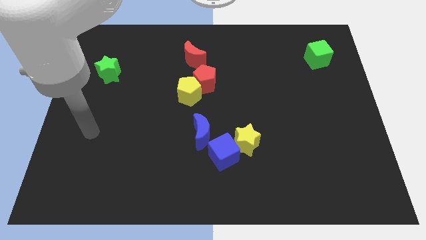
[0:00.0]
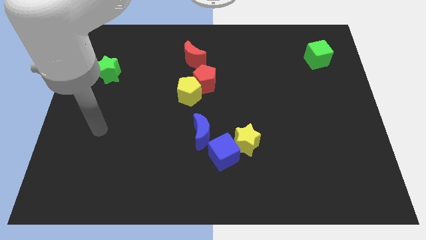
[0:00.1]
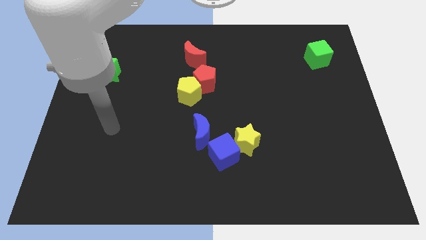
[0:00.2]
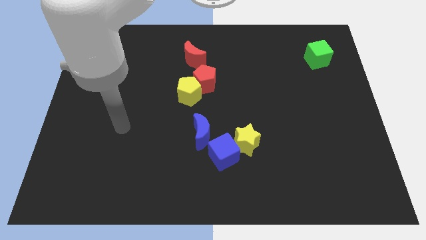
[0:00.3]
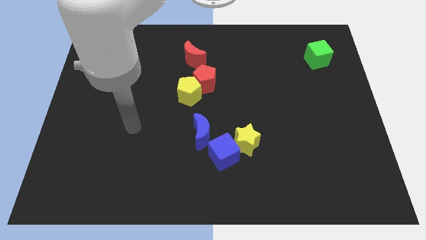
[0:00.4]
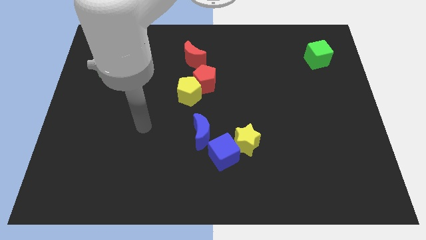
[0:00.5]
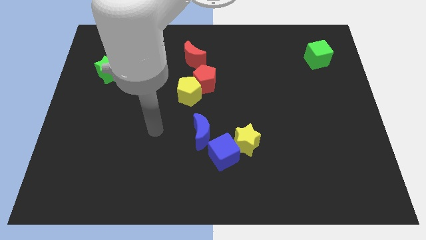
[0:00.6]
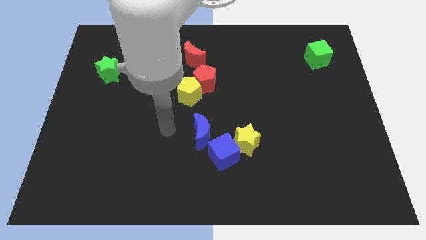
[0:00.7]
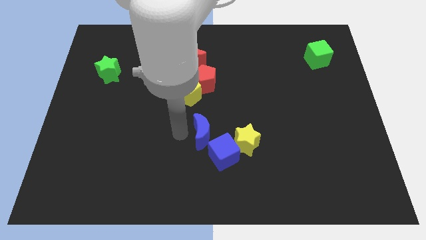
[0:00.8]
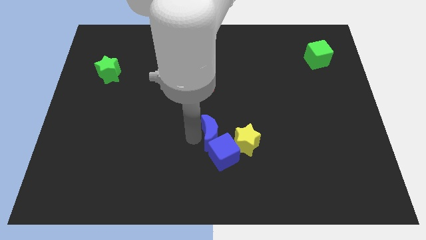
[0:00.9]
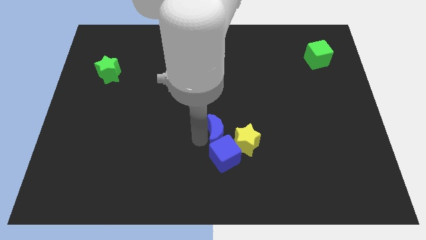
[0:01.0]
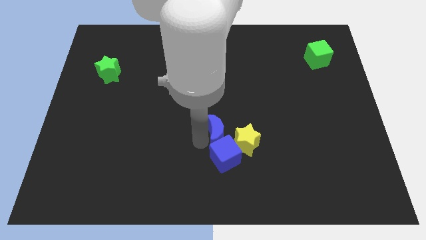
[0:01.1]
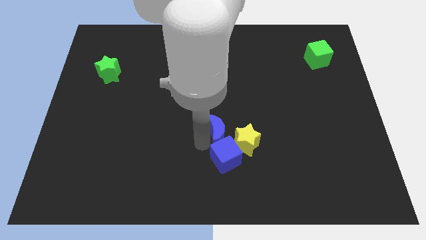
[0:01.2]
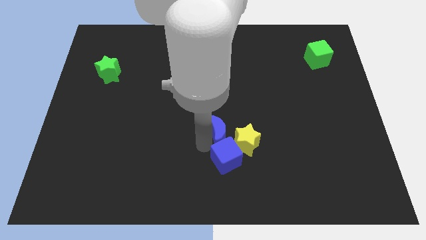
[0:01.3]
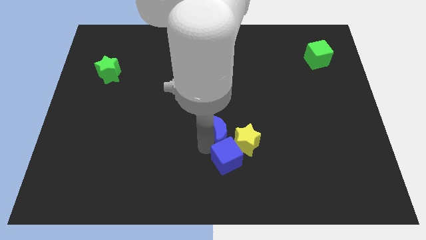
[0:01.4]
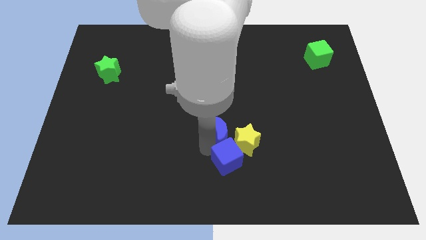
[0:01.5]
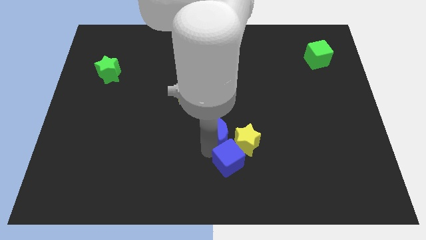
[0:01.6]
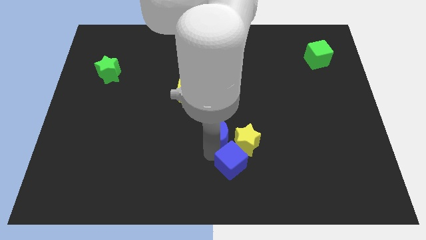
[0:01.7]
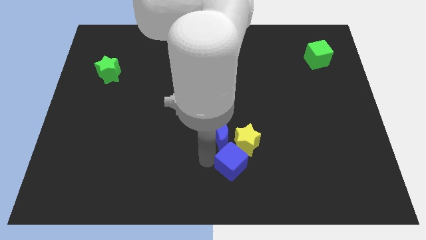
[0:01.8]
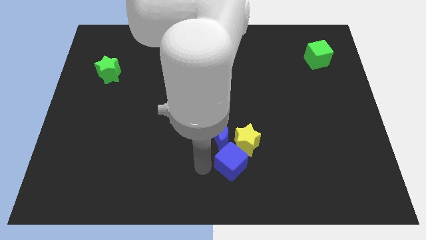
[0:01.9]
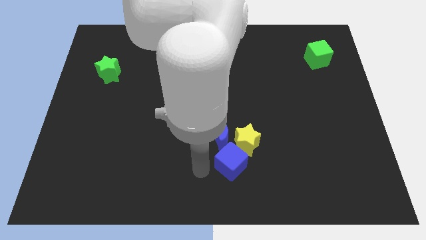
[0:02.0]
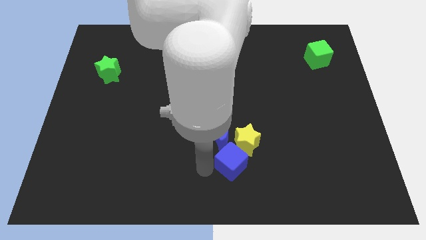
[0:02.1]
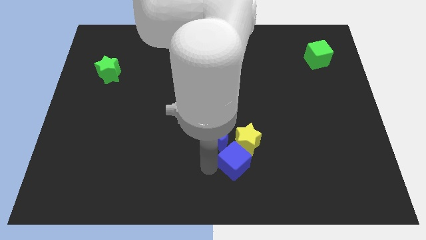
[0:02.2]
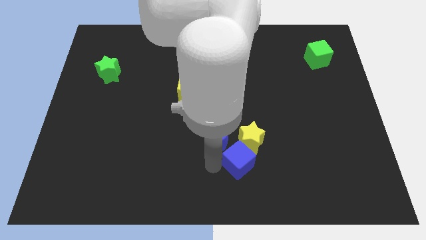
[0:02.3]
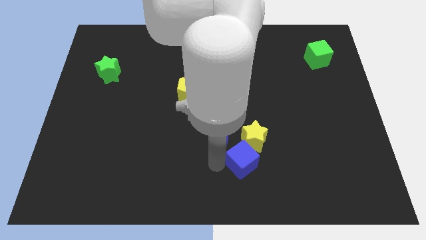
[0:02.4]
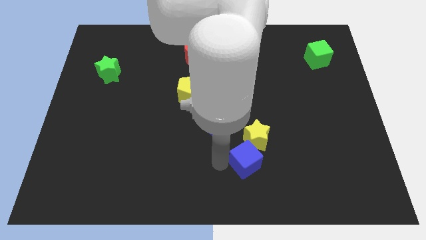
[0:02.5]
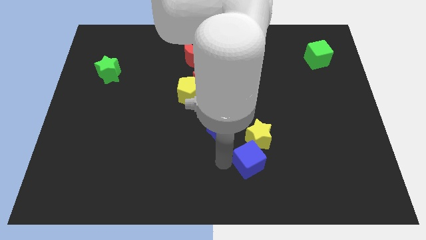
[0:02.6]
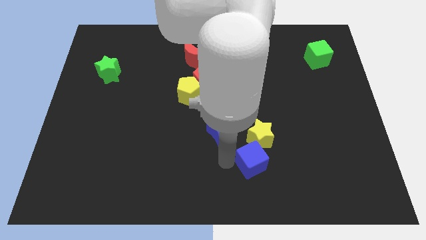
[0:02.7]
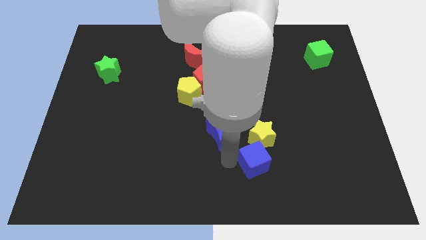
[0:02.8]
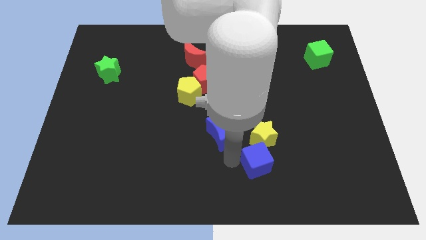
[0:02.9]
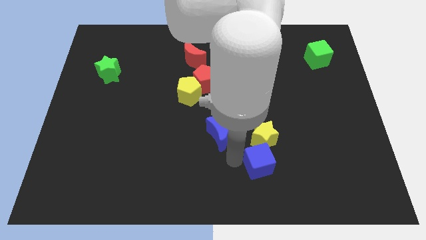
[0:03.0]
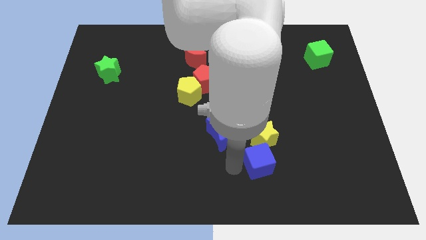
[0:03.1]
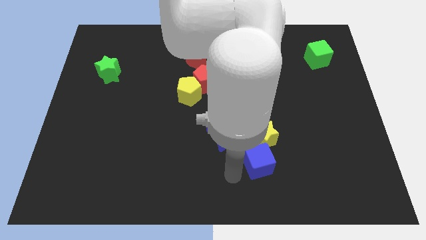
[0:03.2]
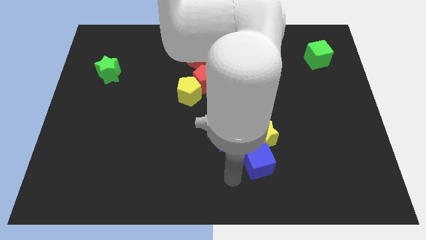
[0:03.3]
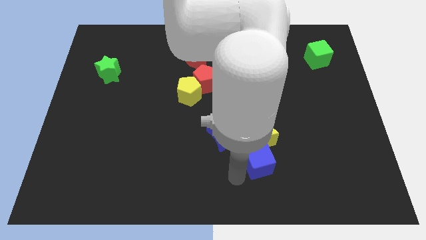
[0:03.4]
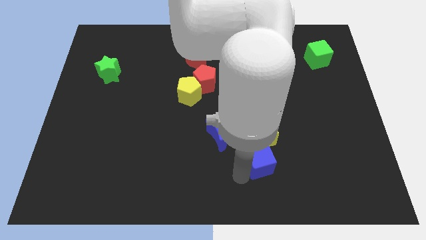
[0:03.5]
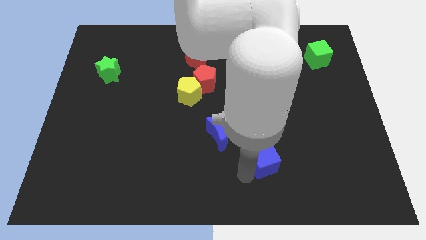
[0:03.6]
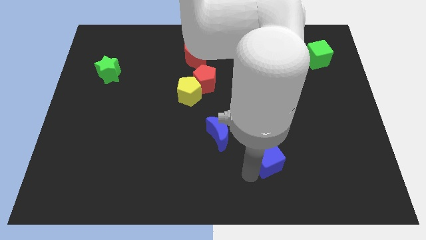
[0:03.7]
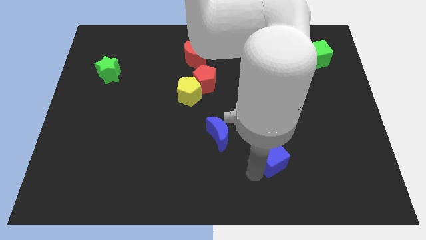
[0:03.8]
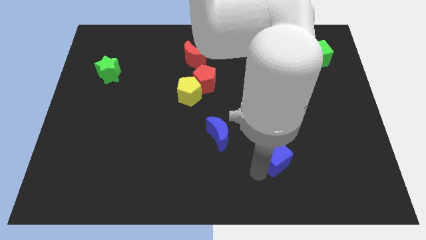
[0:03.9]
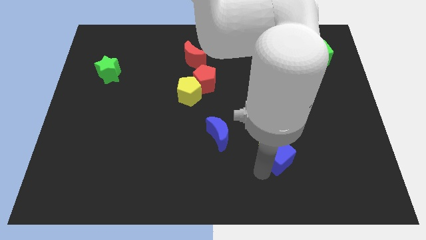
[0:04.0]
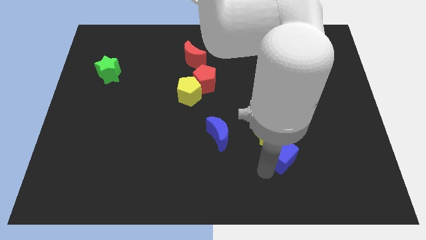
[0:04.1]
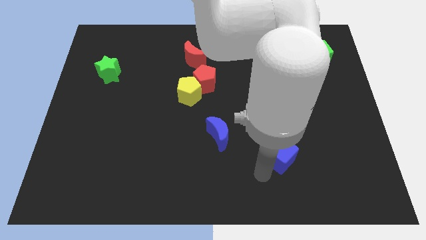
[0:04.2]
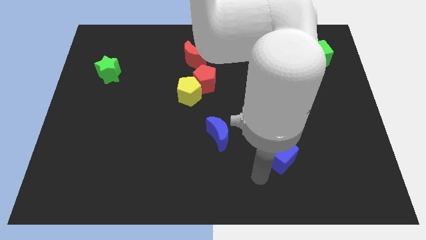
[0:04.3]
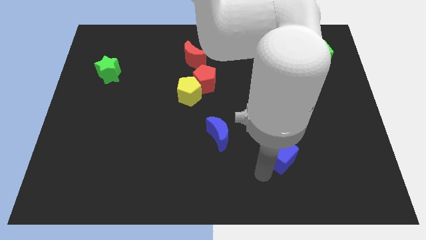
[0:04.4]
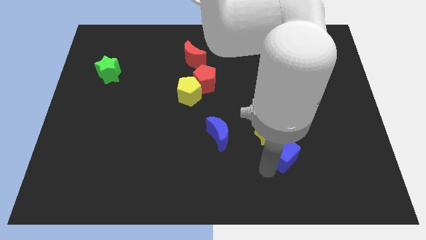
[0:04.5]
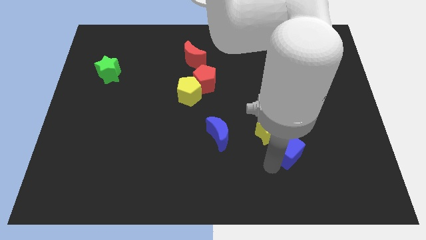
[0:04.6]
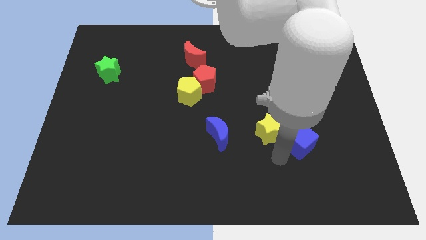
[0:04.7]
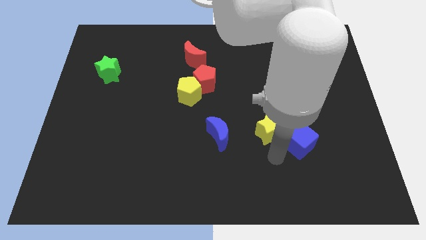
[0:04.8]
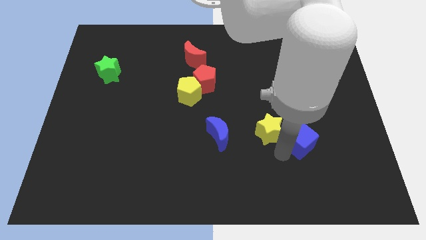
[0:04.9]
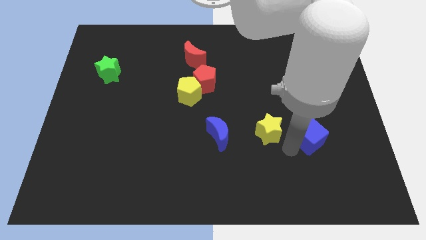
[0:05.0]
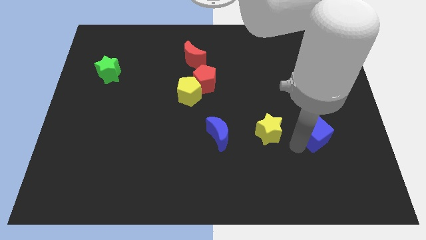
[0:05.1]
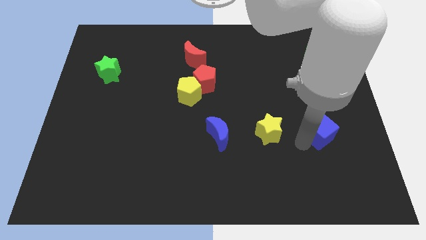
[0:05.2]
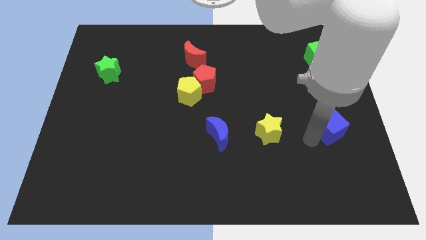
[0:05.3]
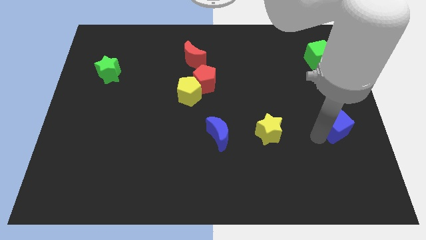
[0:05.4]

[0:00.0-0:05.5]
put the blue cube to the center right

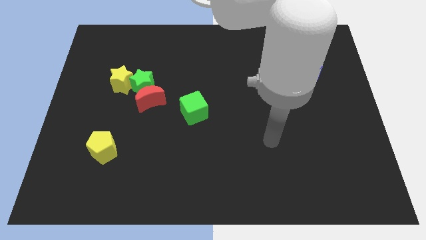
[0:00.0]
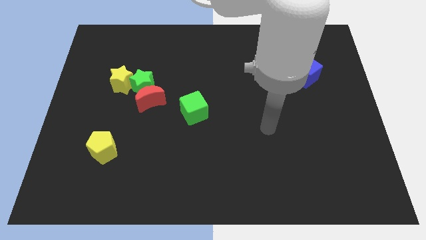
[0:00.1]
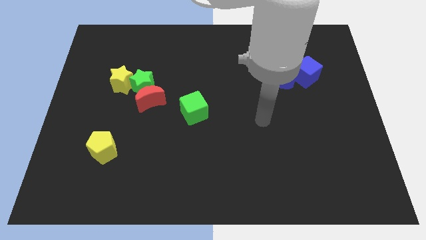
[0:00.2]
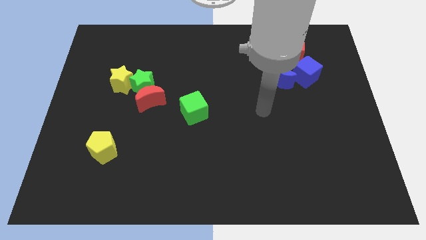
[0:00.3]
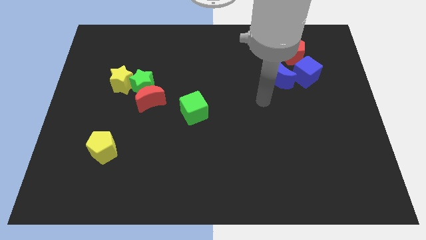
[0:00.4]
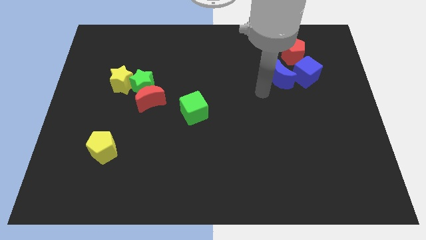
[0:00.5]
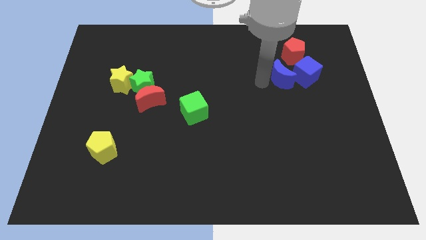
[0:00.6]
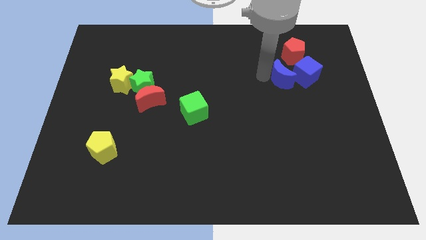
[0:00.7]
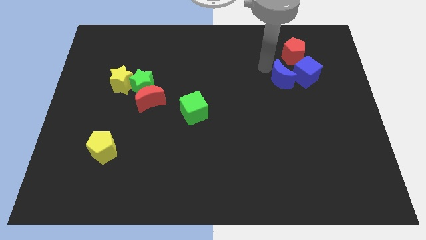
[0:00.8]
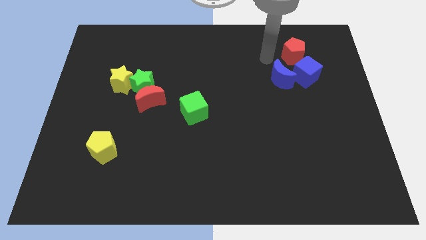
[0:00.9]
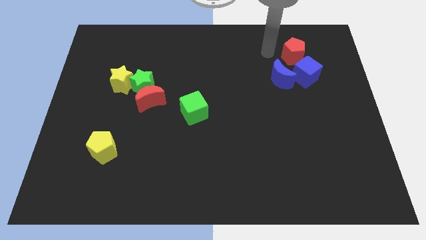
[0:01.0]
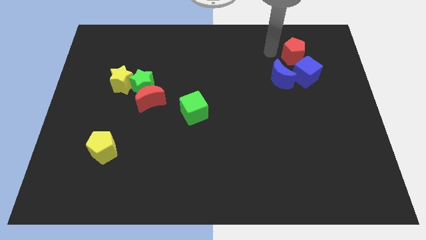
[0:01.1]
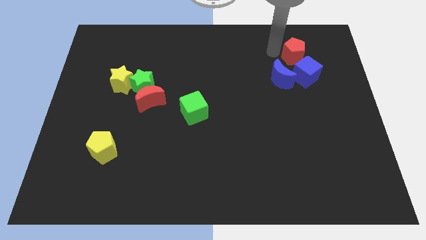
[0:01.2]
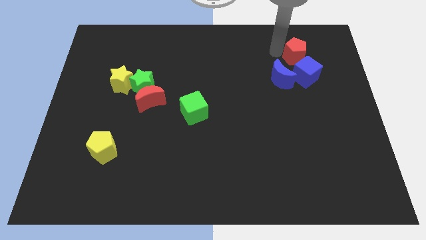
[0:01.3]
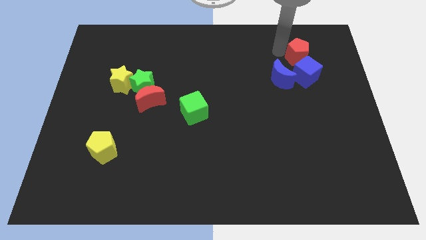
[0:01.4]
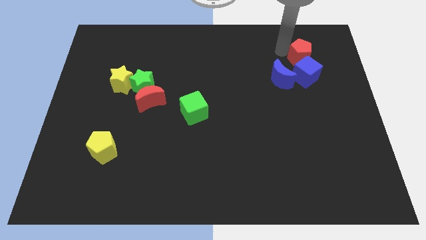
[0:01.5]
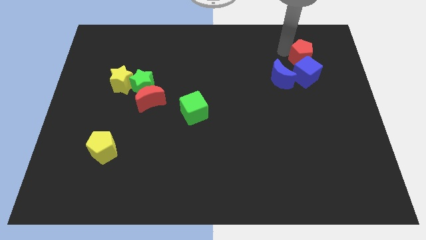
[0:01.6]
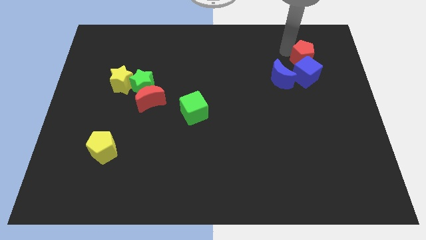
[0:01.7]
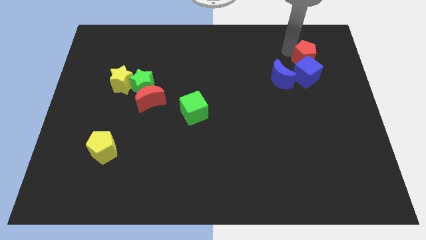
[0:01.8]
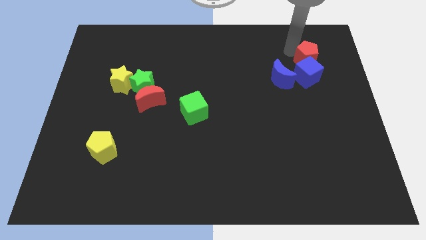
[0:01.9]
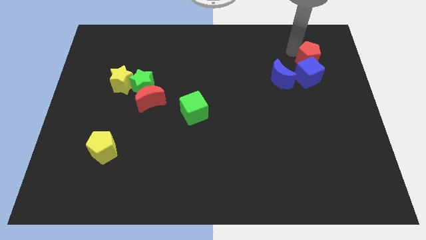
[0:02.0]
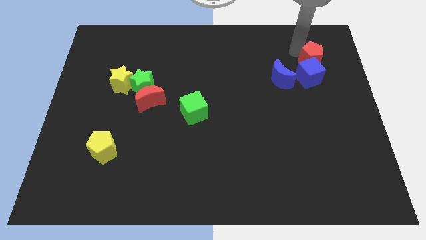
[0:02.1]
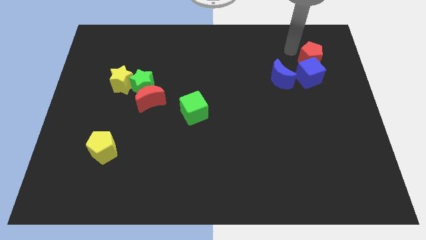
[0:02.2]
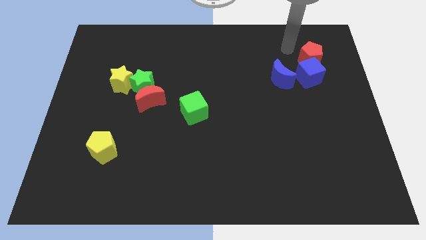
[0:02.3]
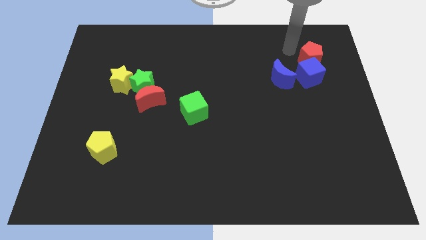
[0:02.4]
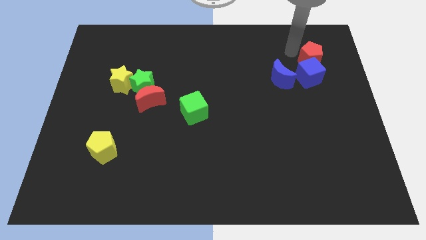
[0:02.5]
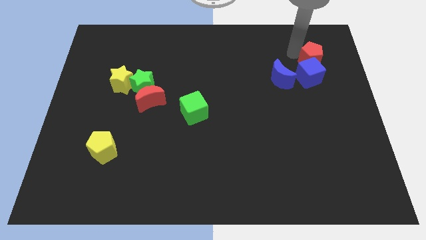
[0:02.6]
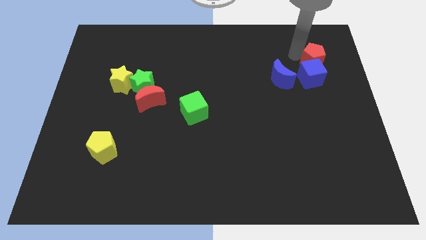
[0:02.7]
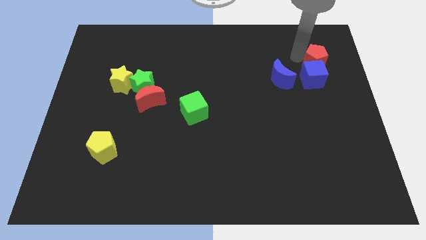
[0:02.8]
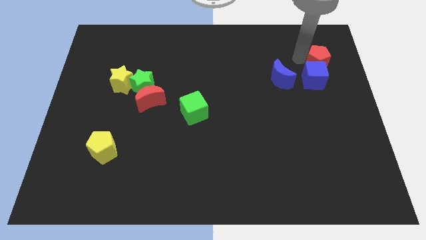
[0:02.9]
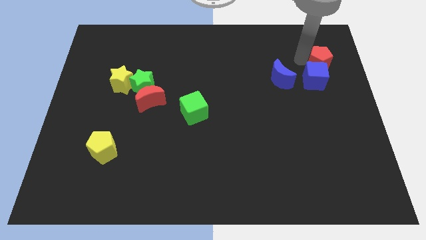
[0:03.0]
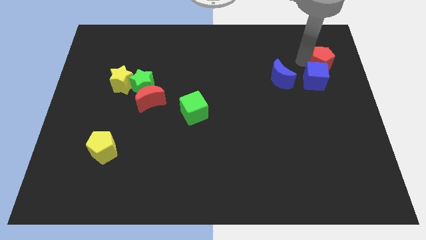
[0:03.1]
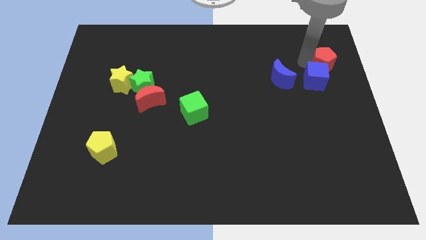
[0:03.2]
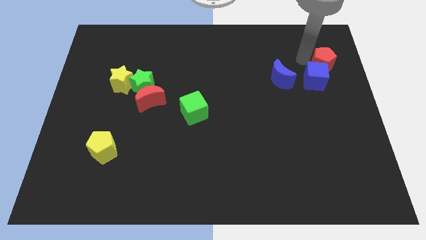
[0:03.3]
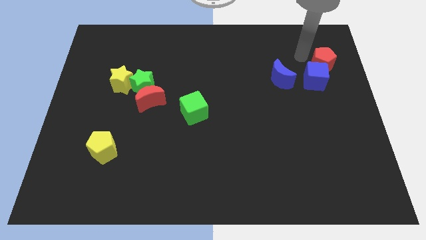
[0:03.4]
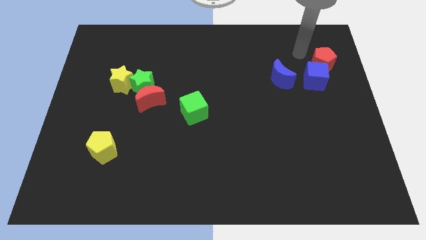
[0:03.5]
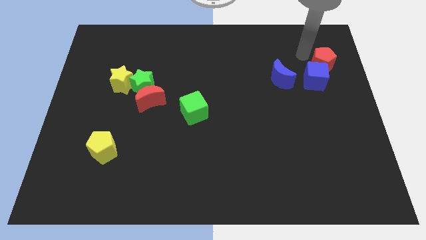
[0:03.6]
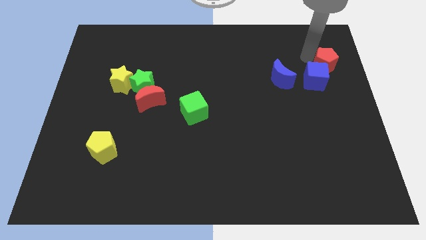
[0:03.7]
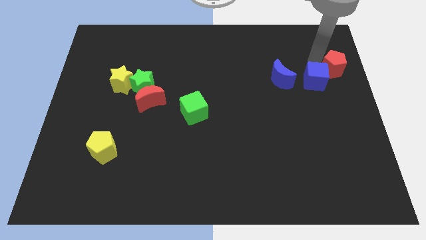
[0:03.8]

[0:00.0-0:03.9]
slide the red pentagon to the center right
